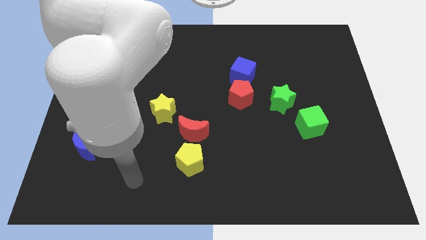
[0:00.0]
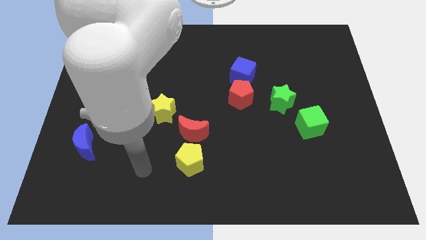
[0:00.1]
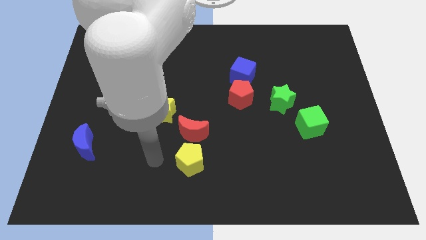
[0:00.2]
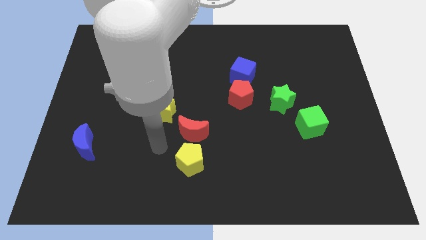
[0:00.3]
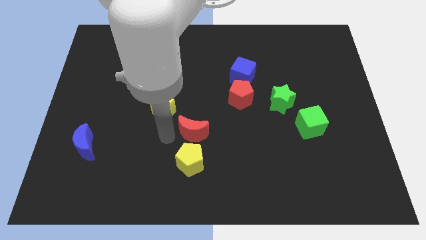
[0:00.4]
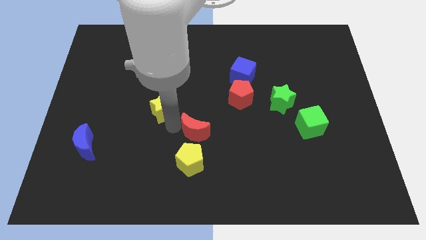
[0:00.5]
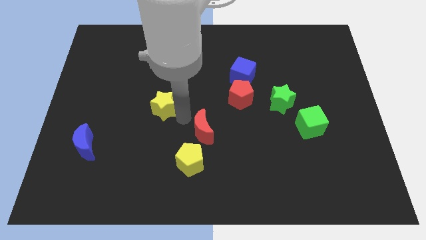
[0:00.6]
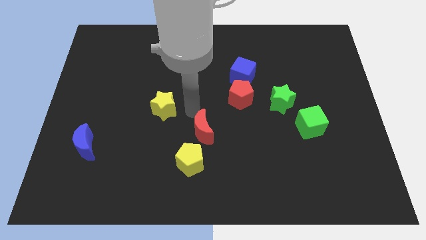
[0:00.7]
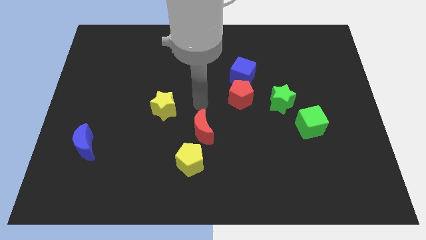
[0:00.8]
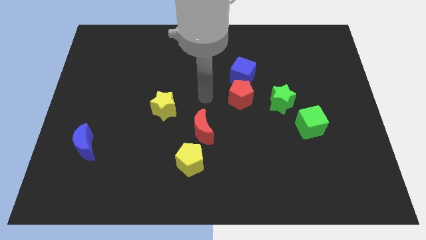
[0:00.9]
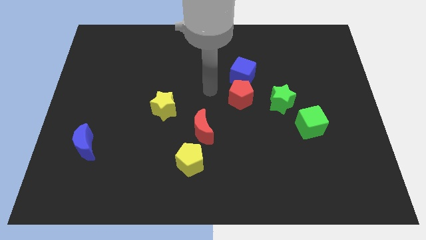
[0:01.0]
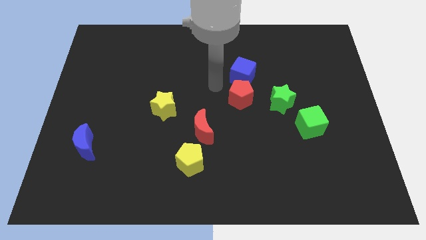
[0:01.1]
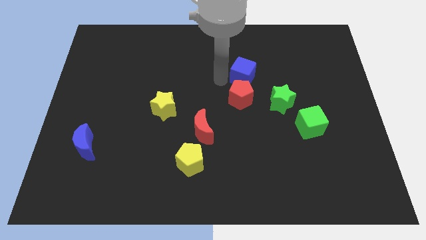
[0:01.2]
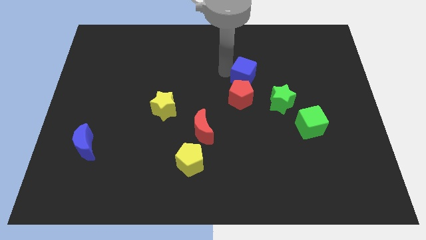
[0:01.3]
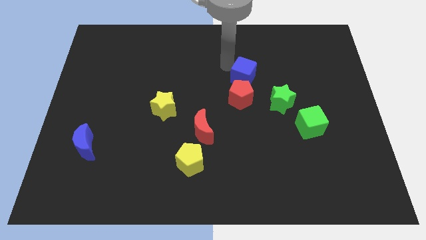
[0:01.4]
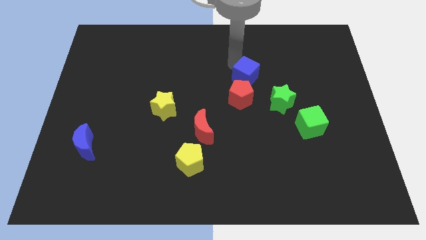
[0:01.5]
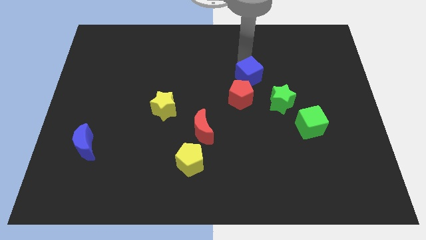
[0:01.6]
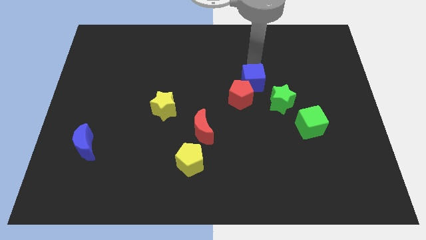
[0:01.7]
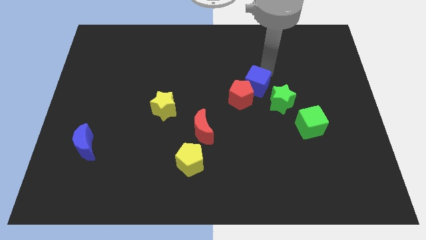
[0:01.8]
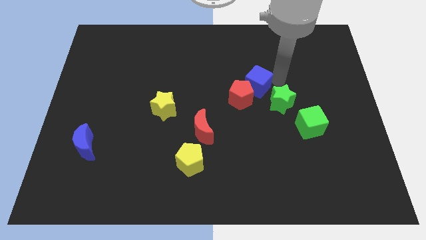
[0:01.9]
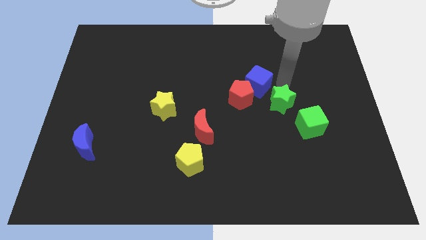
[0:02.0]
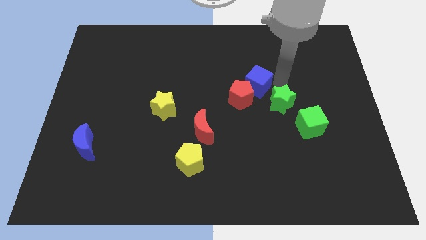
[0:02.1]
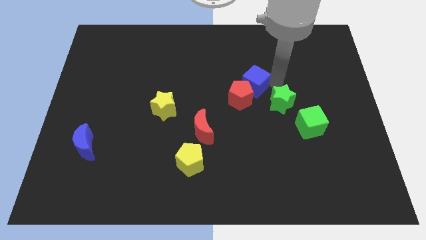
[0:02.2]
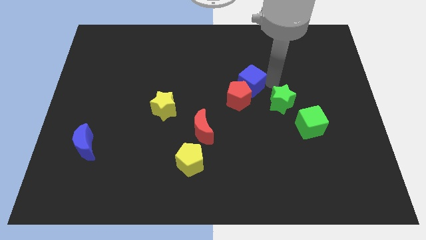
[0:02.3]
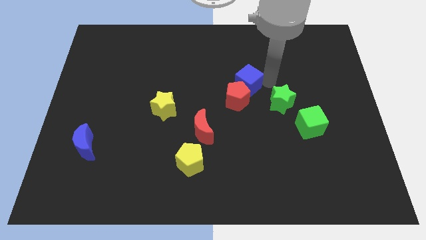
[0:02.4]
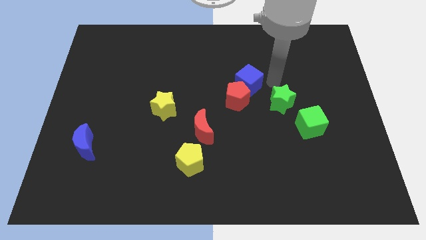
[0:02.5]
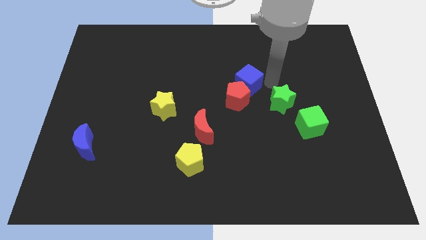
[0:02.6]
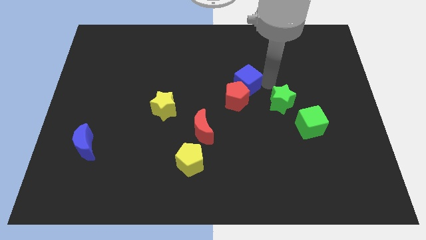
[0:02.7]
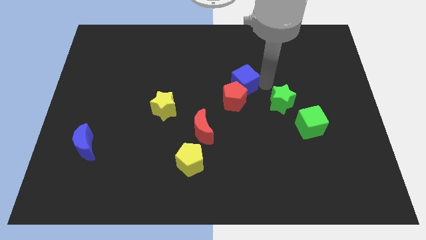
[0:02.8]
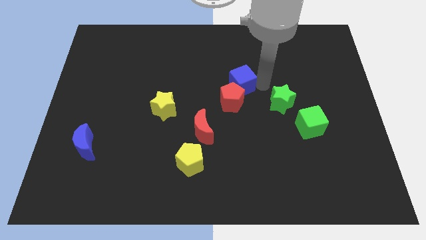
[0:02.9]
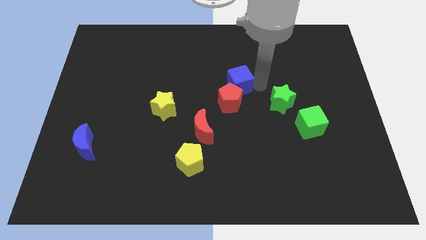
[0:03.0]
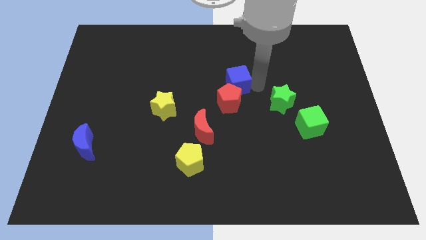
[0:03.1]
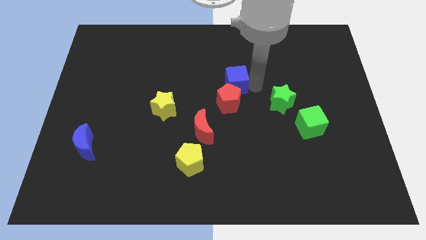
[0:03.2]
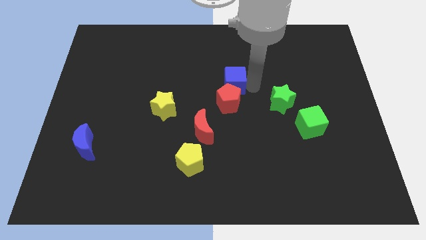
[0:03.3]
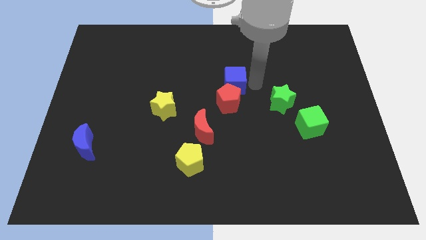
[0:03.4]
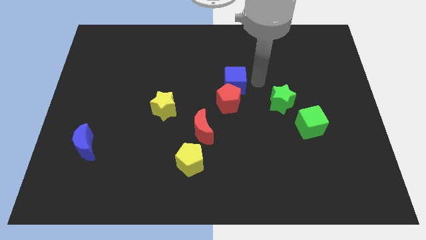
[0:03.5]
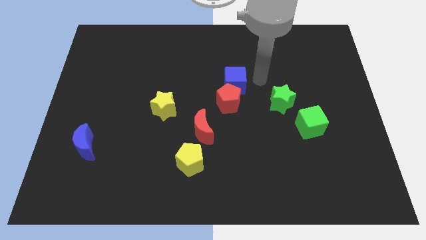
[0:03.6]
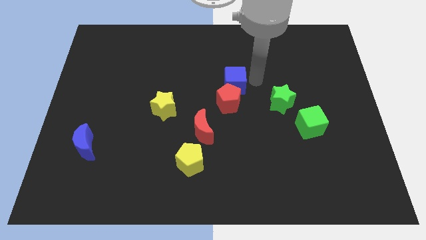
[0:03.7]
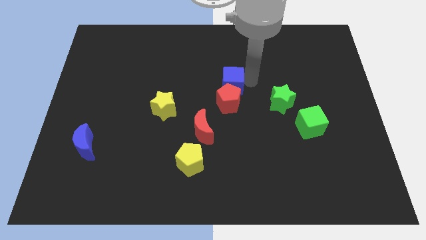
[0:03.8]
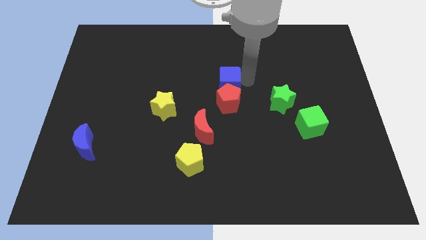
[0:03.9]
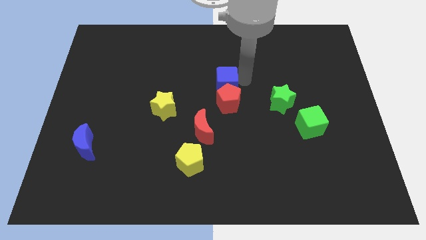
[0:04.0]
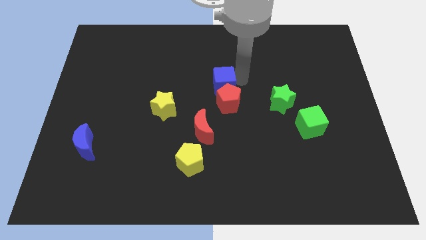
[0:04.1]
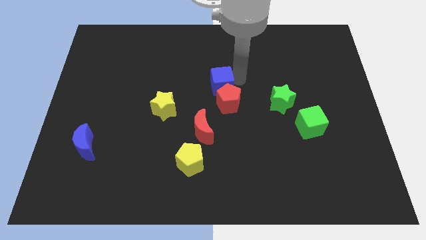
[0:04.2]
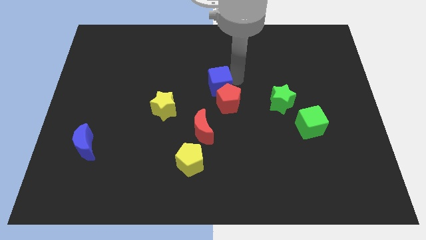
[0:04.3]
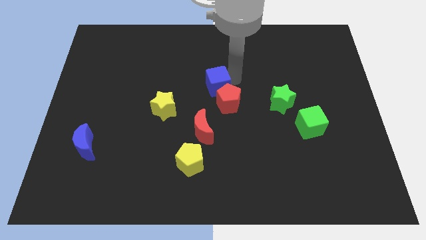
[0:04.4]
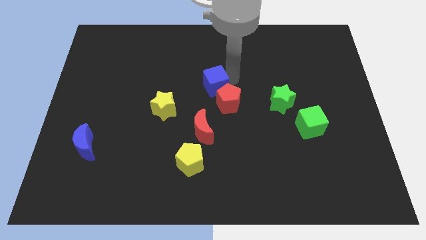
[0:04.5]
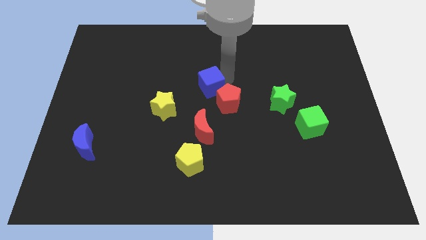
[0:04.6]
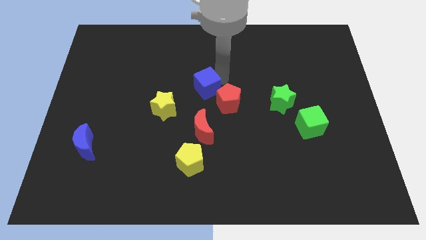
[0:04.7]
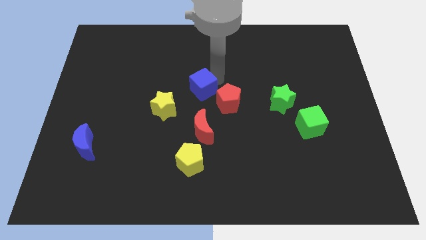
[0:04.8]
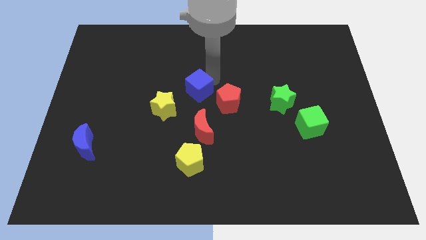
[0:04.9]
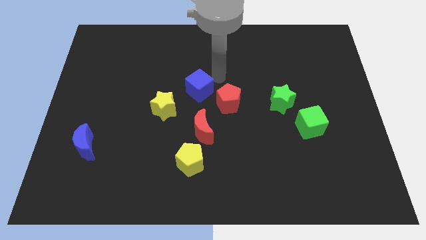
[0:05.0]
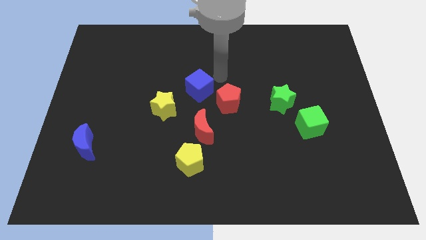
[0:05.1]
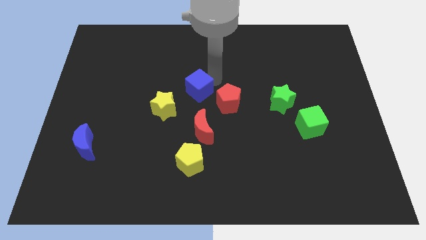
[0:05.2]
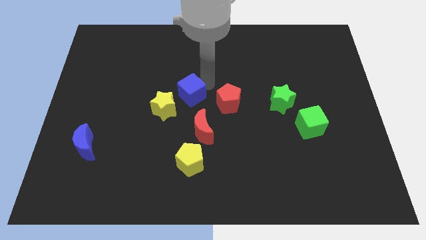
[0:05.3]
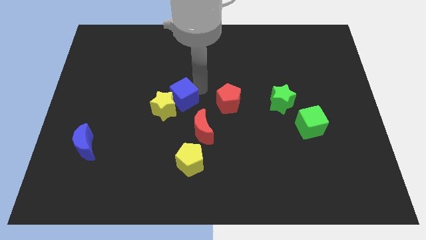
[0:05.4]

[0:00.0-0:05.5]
slide the blue cube next to the yellow star

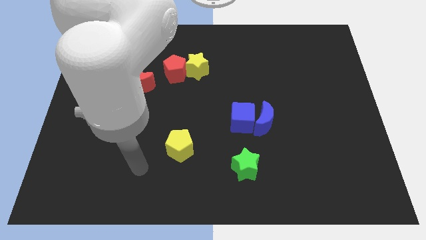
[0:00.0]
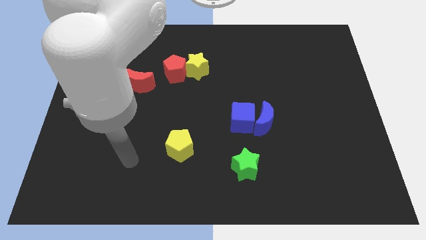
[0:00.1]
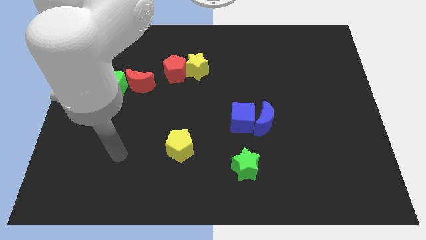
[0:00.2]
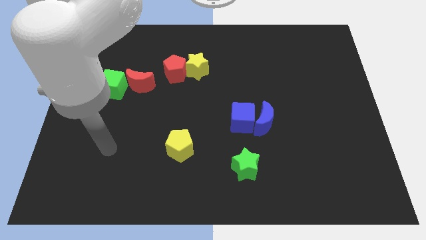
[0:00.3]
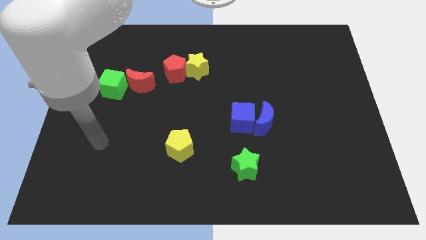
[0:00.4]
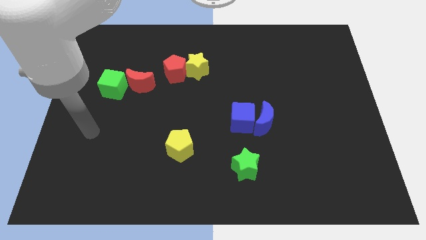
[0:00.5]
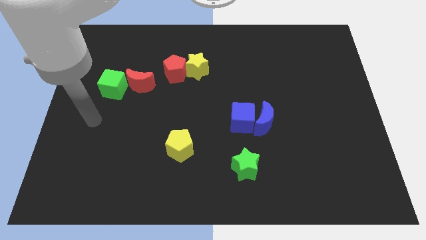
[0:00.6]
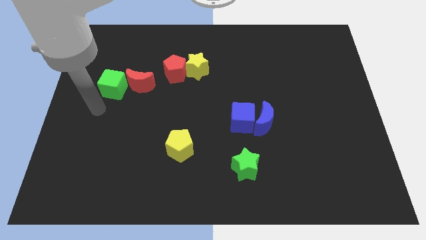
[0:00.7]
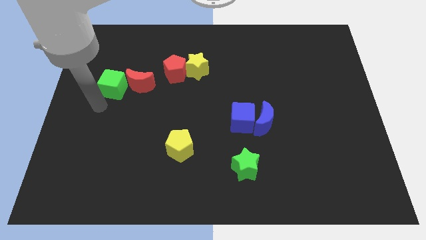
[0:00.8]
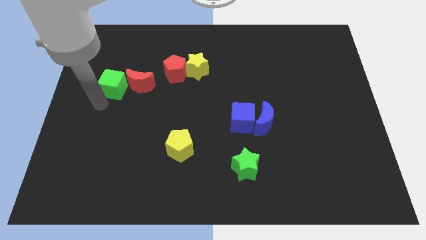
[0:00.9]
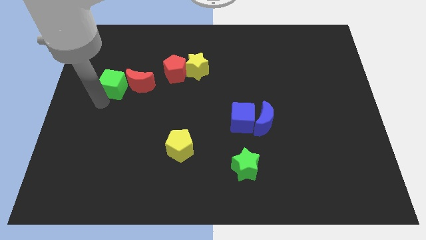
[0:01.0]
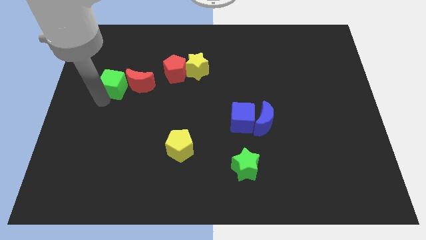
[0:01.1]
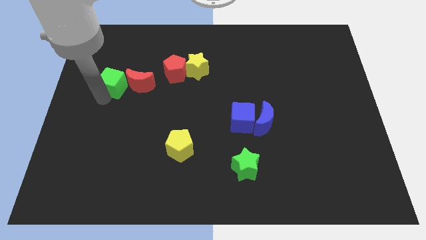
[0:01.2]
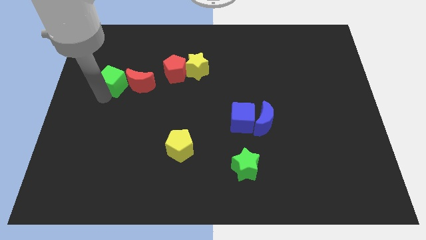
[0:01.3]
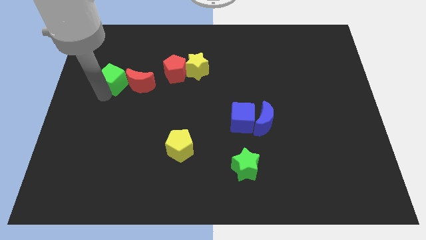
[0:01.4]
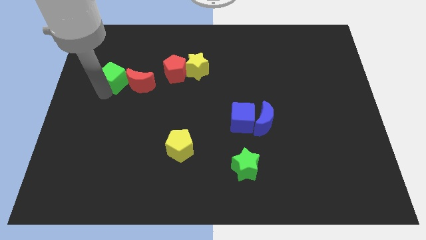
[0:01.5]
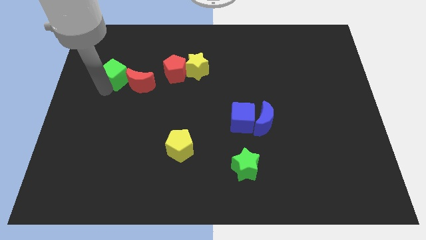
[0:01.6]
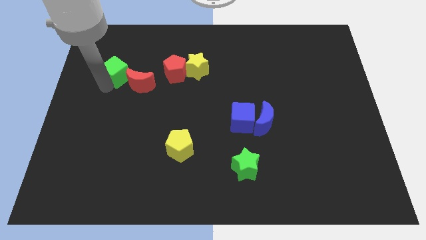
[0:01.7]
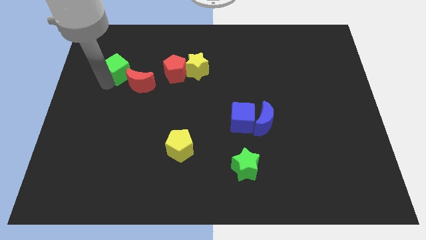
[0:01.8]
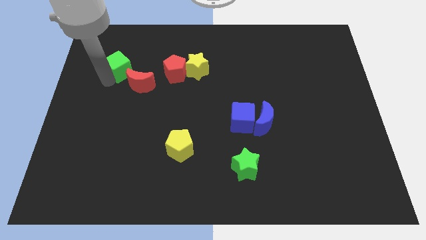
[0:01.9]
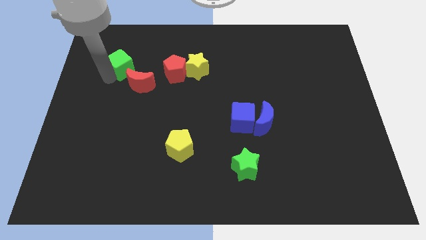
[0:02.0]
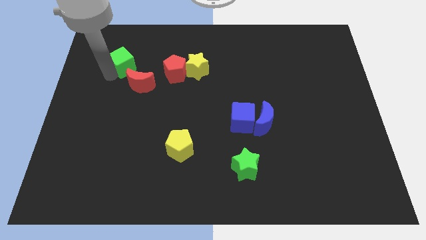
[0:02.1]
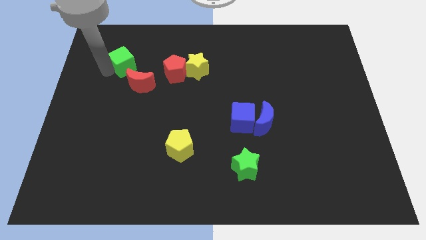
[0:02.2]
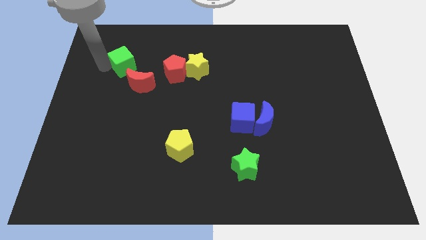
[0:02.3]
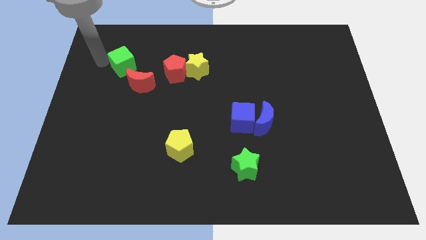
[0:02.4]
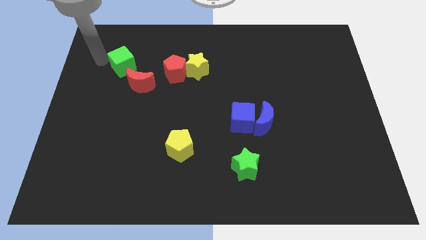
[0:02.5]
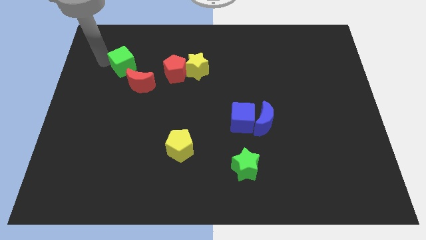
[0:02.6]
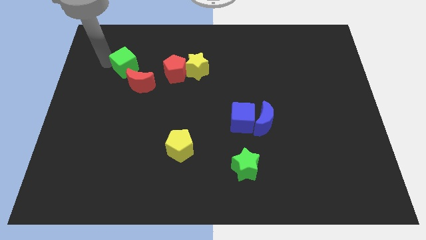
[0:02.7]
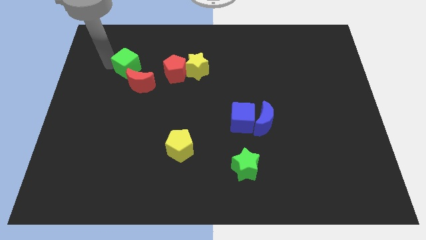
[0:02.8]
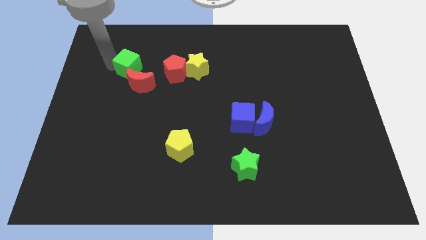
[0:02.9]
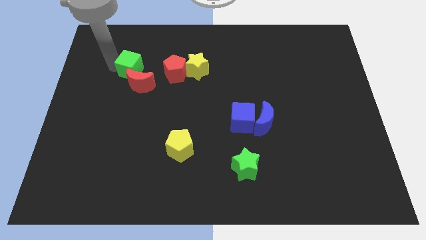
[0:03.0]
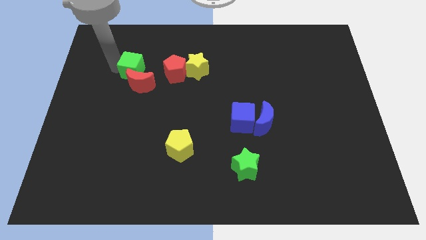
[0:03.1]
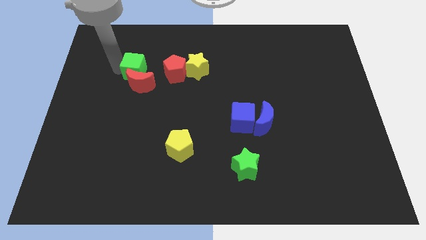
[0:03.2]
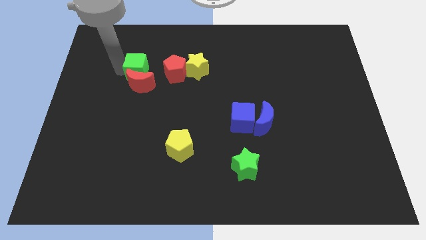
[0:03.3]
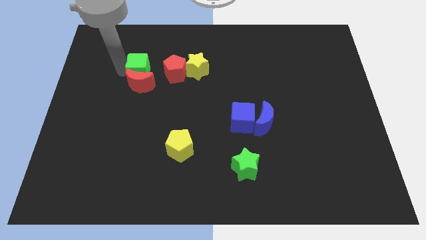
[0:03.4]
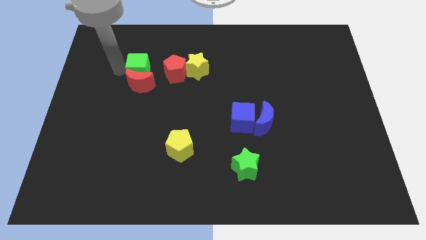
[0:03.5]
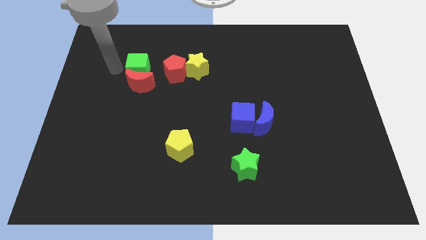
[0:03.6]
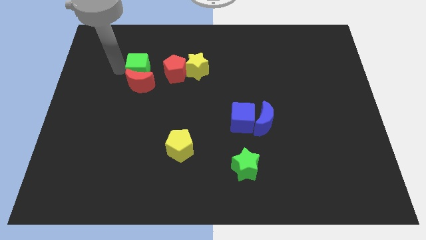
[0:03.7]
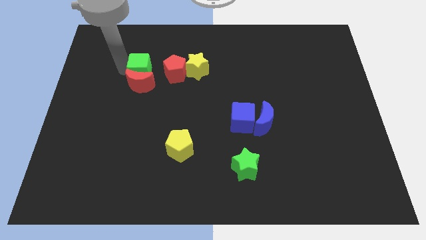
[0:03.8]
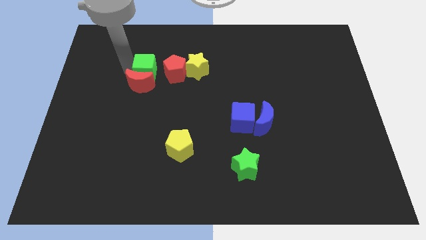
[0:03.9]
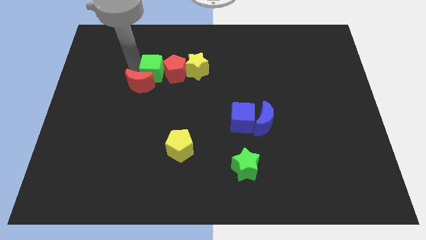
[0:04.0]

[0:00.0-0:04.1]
slide the green cube next to the red pentagon
